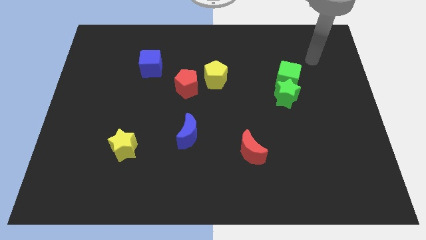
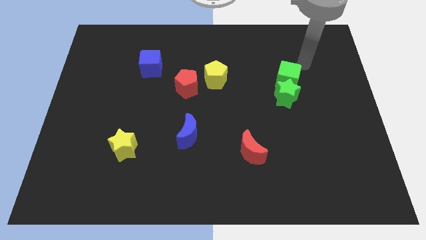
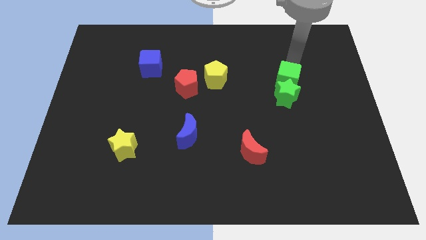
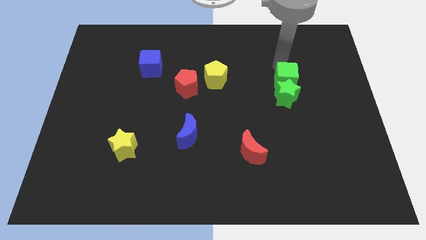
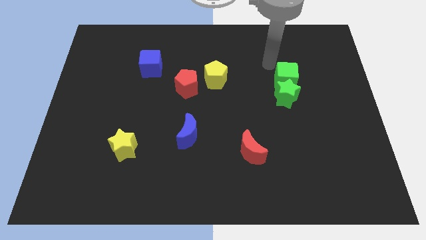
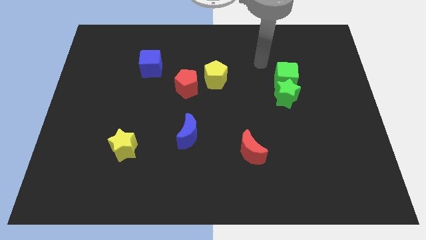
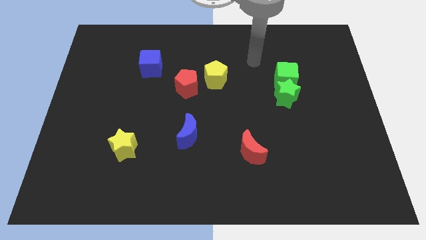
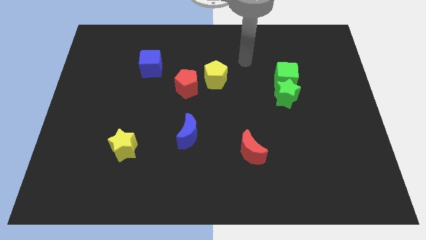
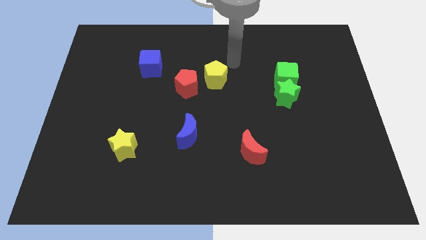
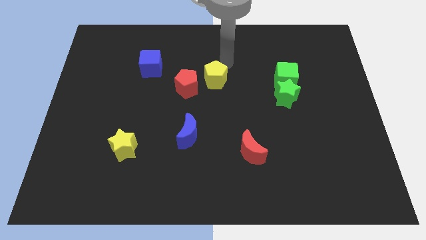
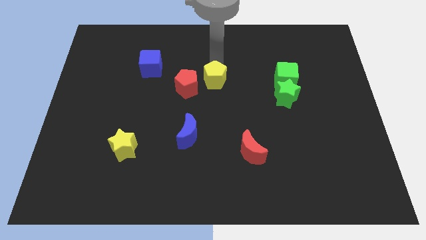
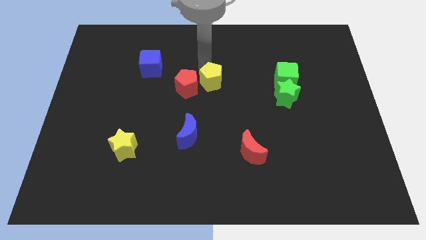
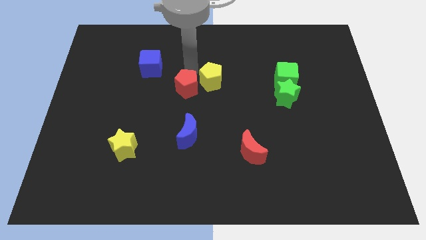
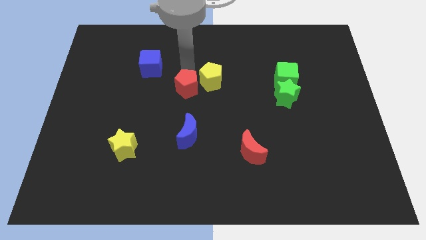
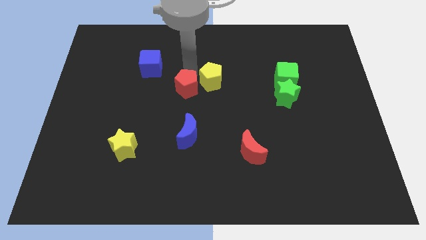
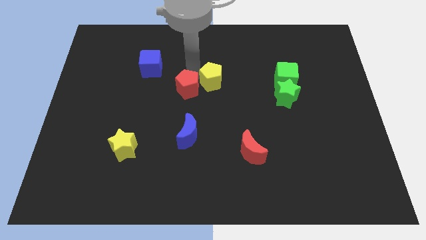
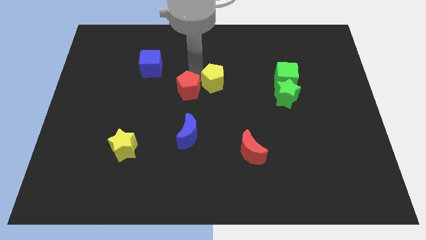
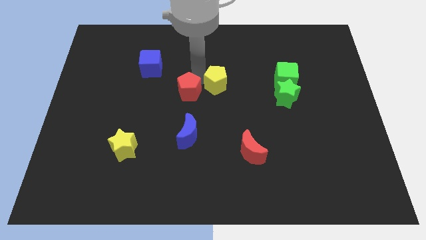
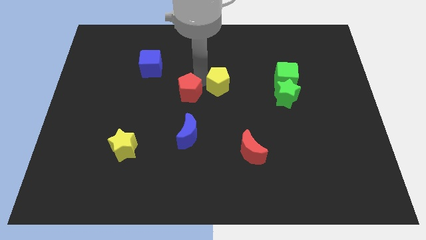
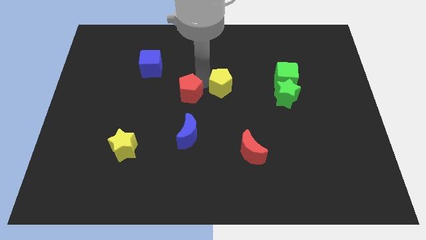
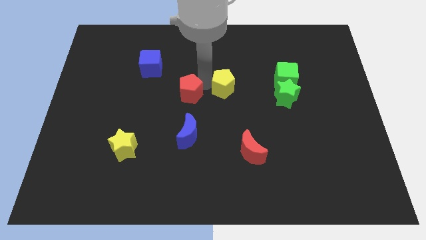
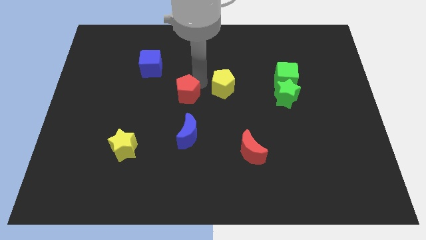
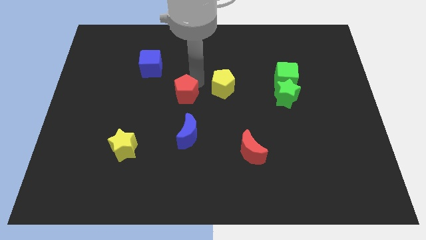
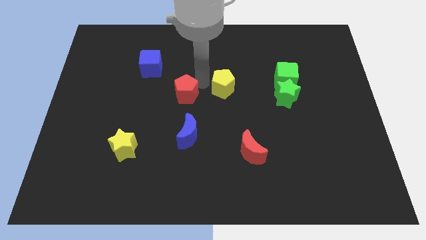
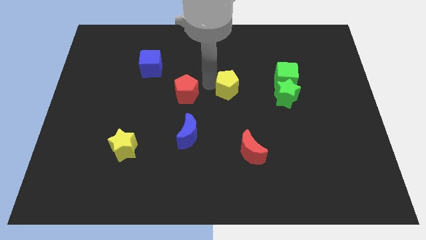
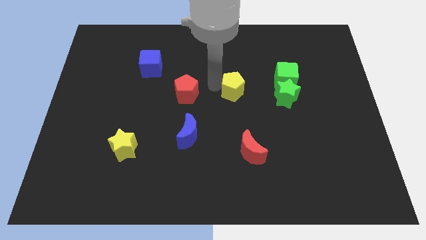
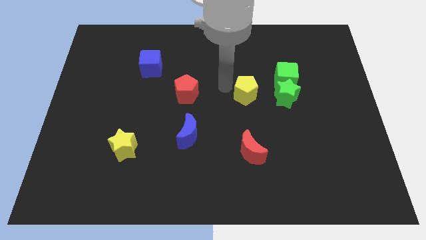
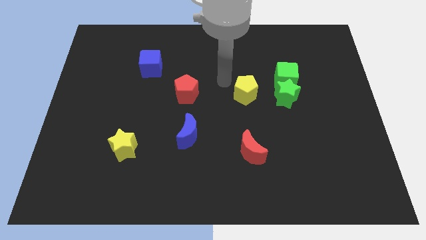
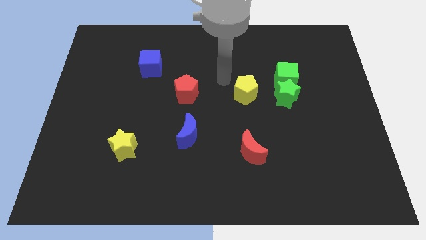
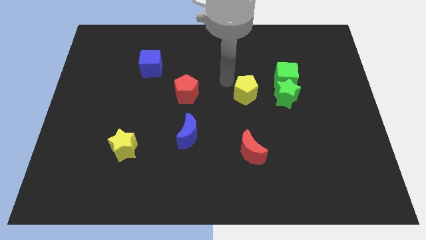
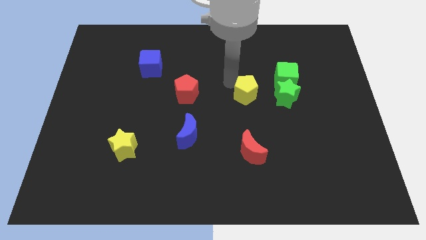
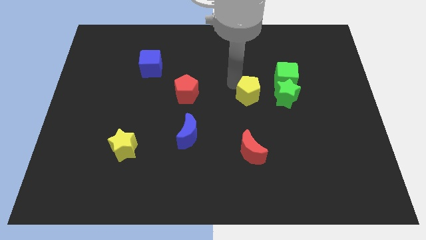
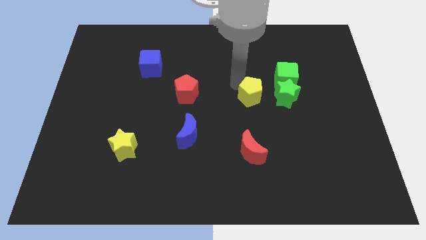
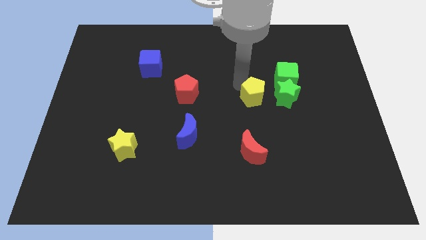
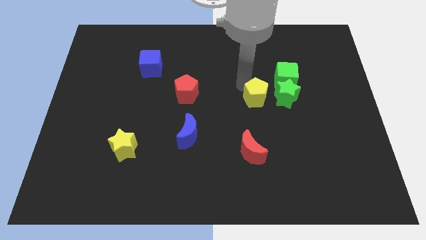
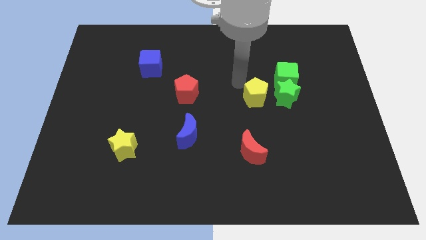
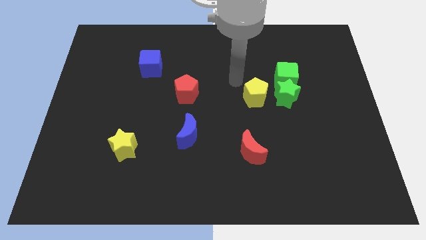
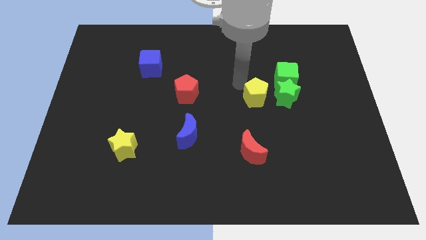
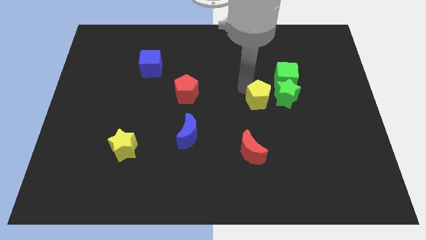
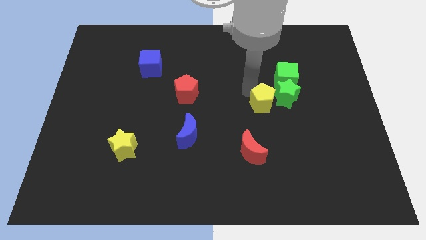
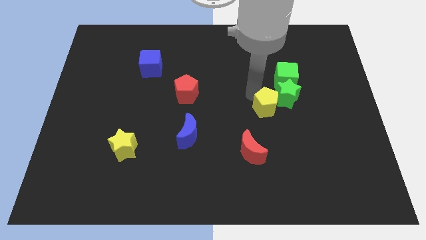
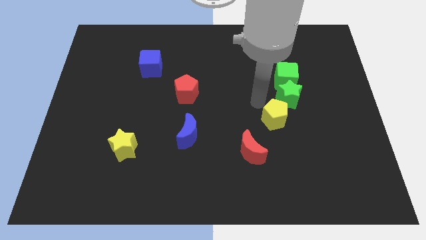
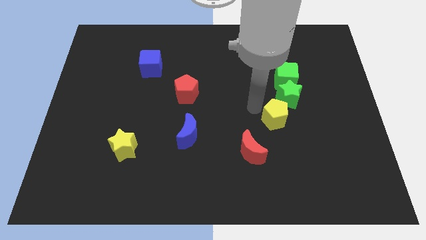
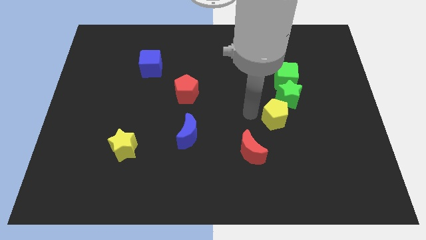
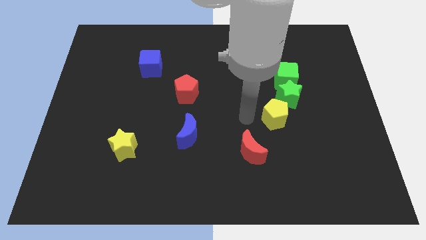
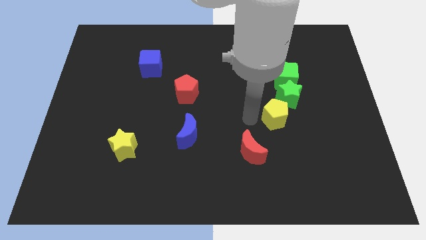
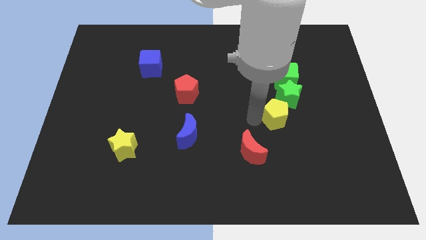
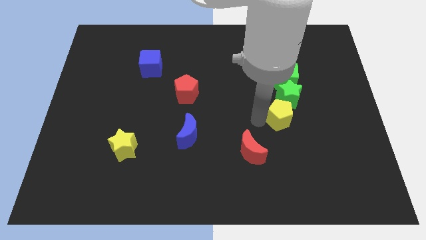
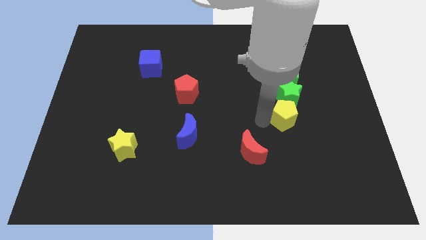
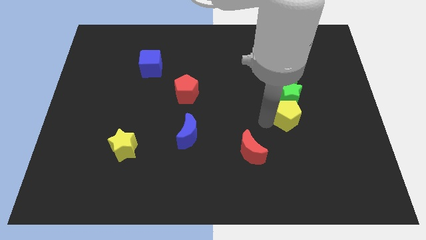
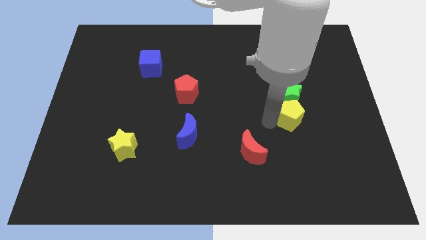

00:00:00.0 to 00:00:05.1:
move the yellow pentagon diagonally down and to the right of the green star

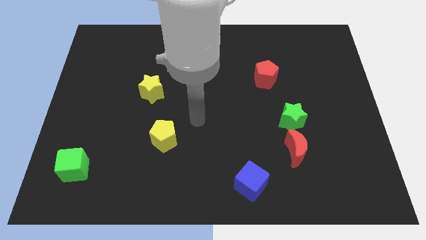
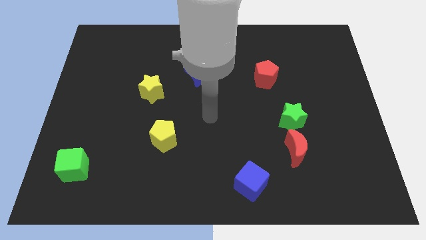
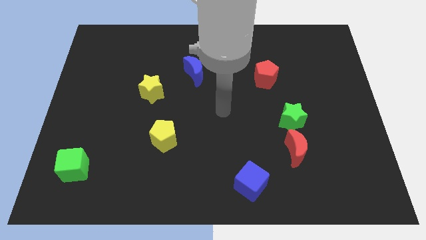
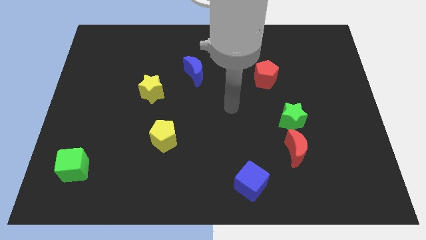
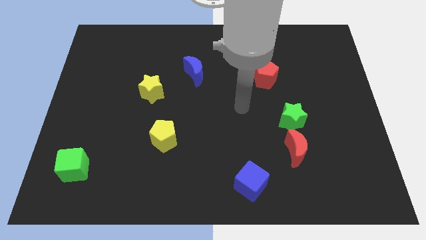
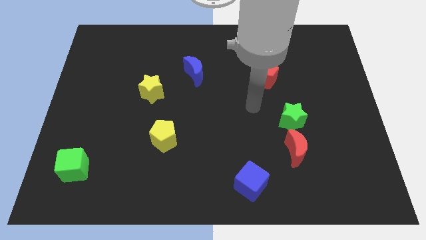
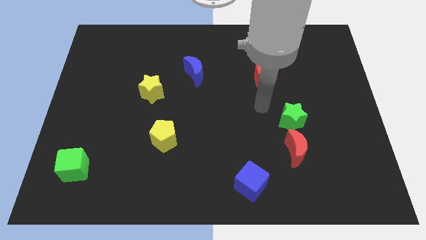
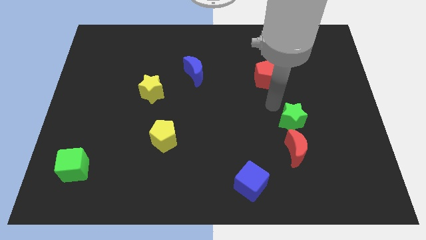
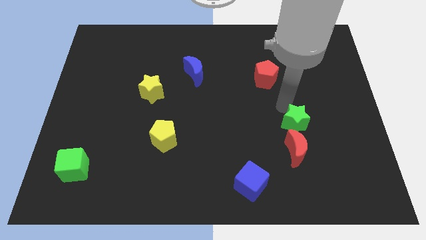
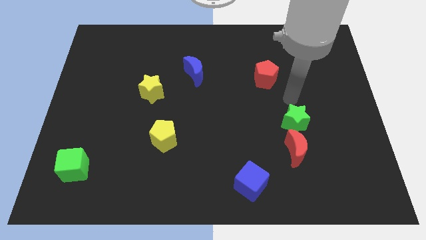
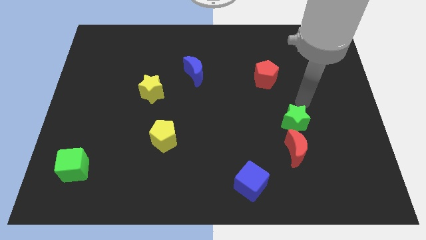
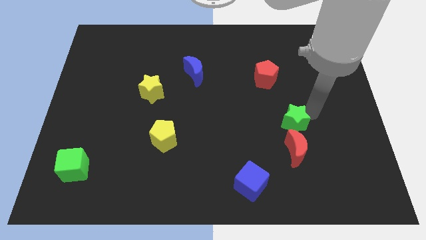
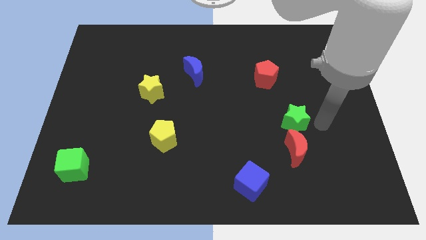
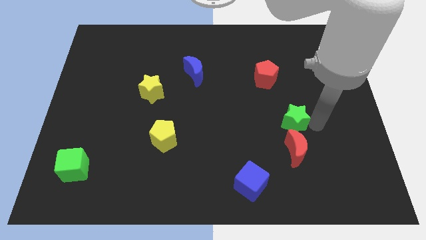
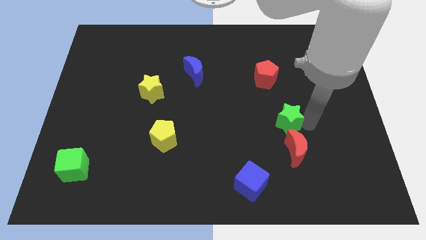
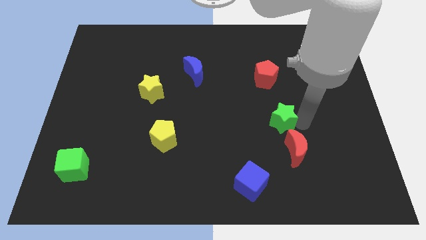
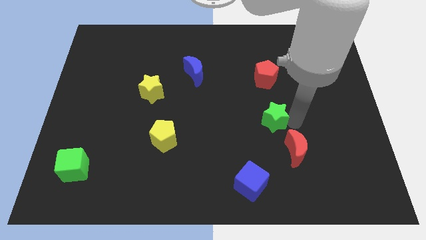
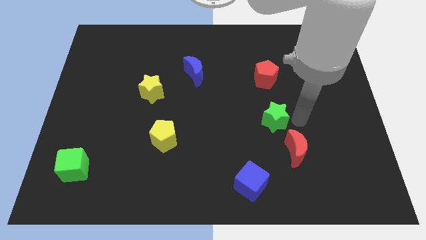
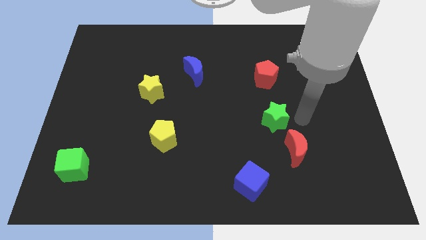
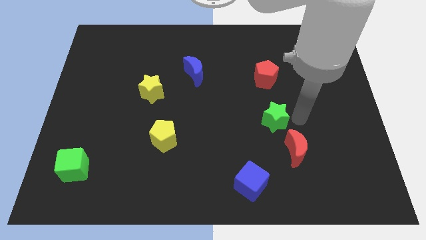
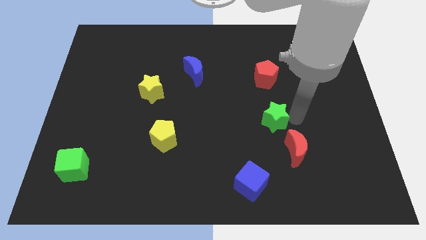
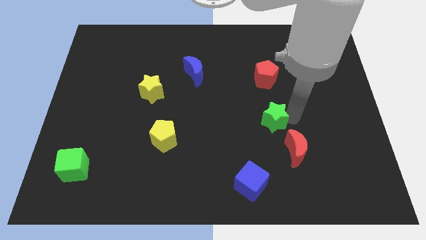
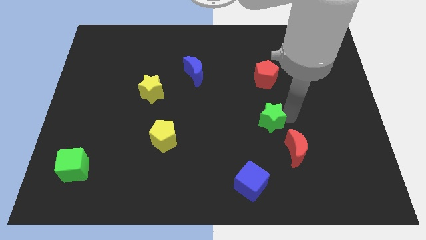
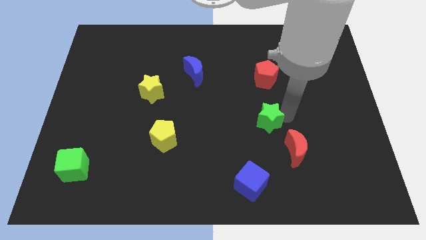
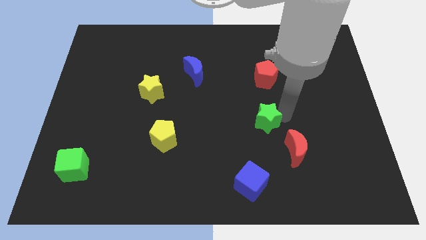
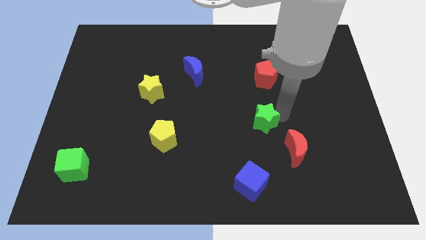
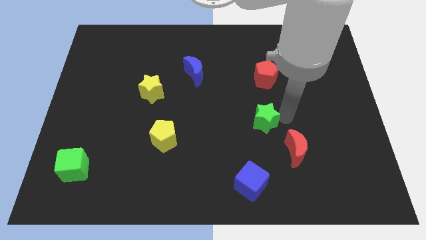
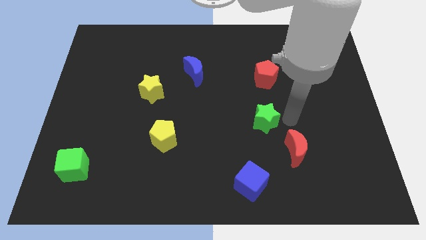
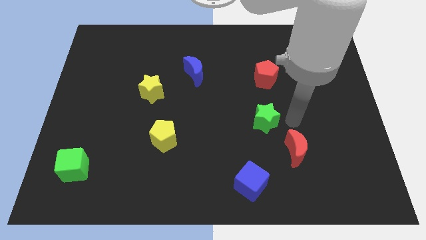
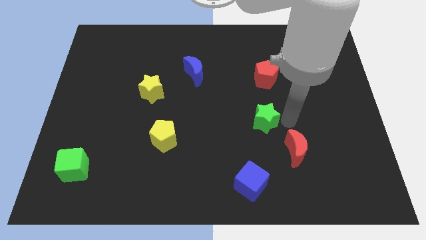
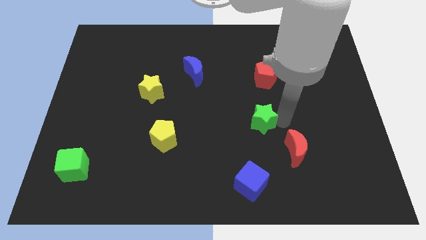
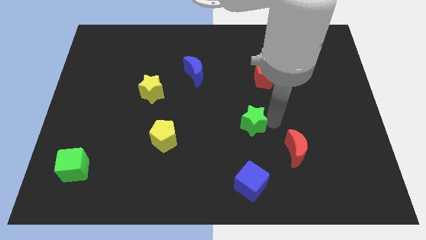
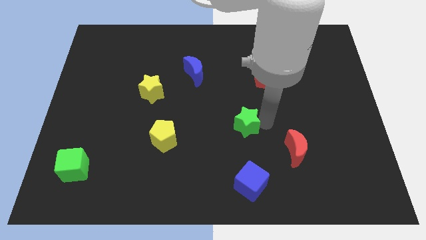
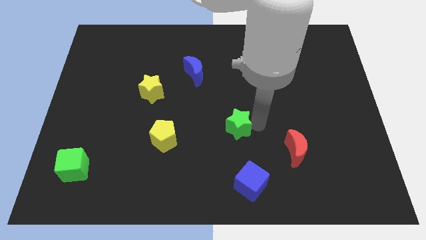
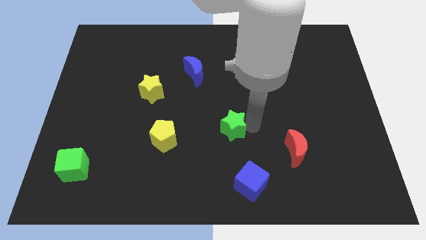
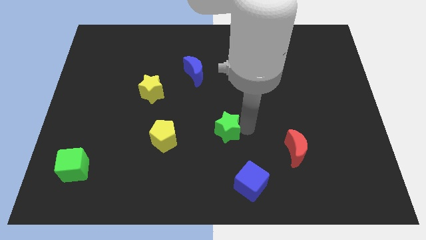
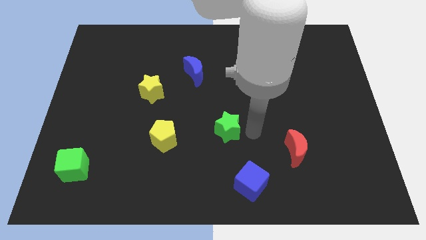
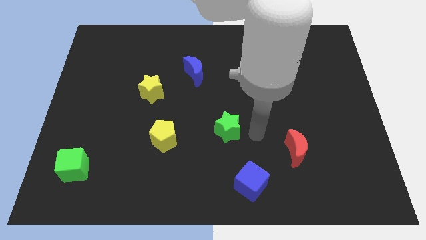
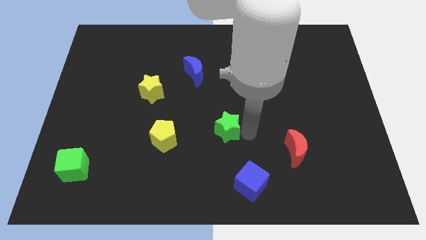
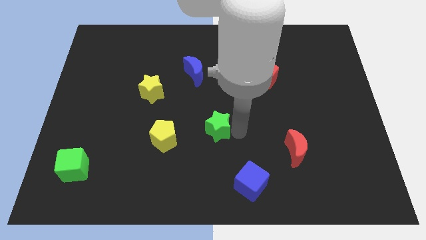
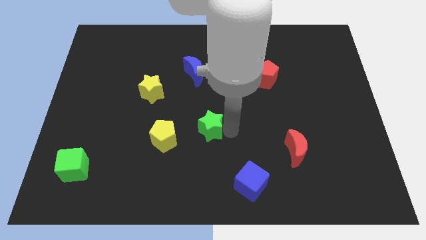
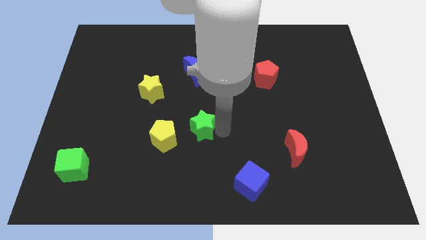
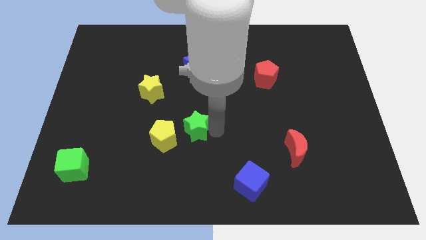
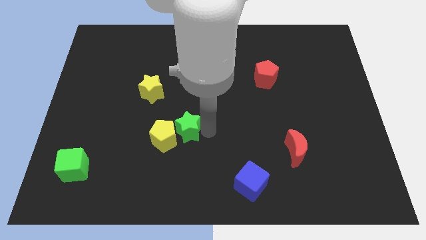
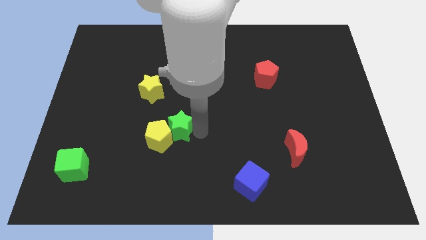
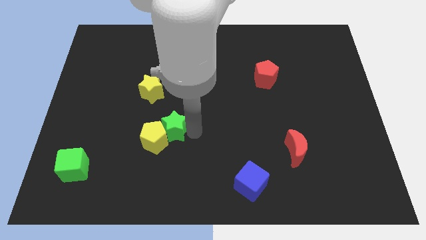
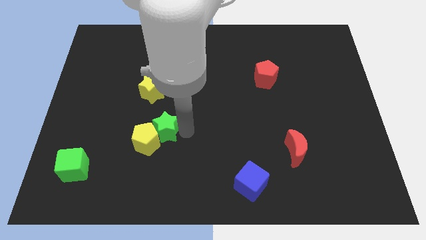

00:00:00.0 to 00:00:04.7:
put the green star to the bottom side of the yellow star
